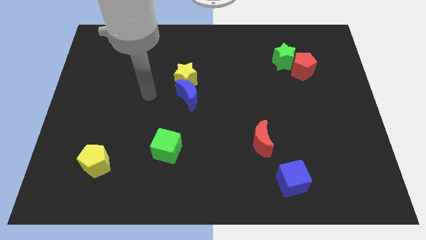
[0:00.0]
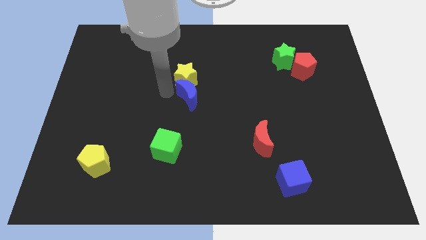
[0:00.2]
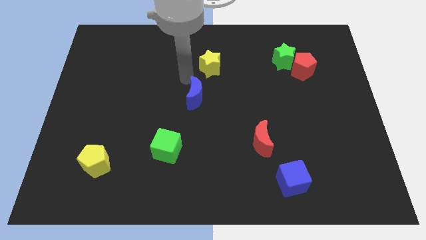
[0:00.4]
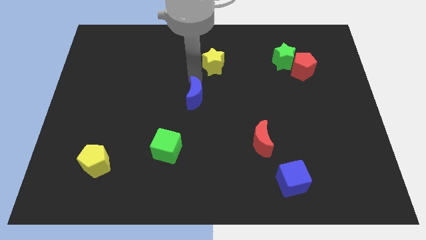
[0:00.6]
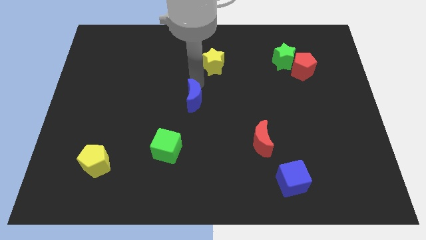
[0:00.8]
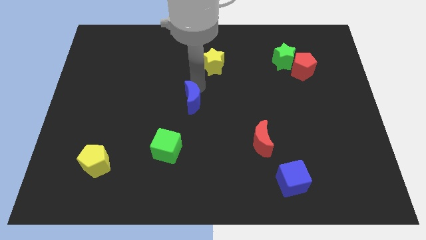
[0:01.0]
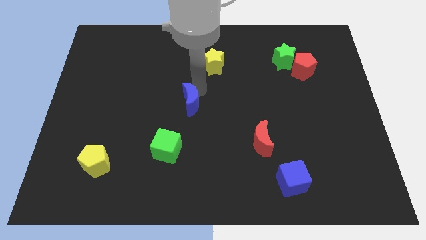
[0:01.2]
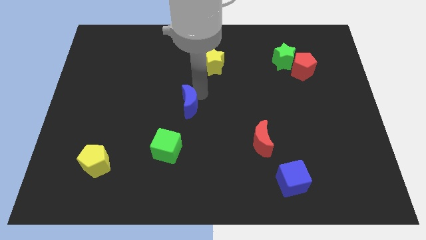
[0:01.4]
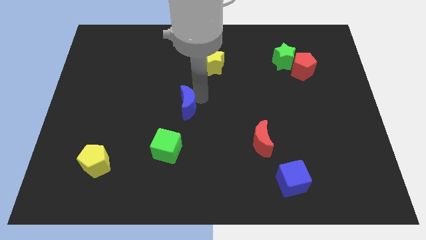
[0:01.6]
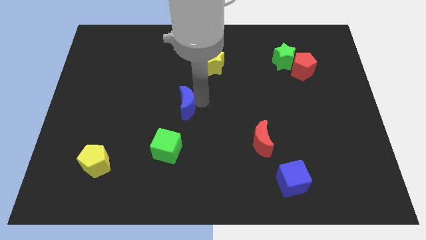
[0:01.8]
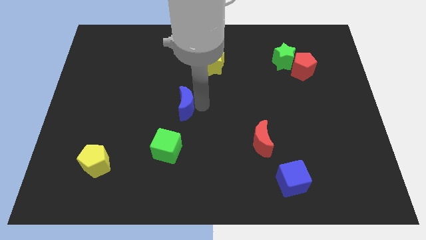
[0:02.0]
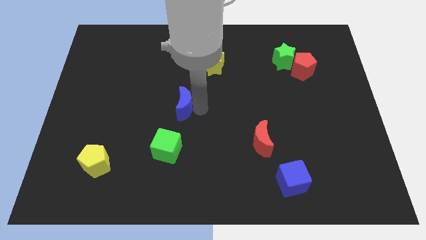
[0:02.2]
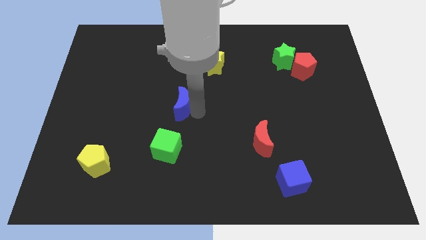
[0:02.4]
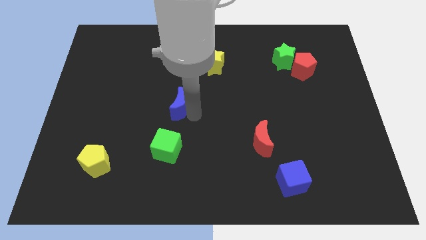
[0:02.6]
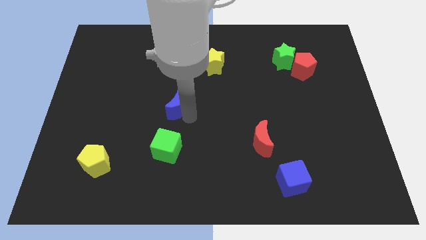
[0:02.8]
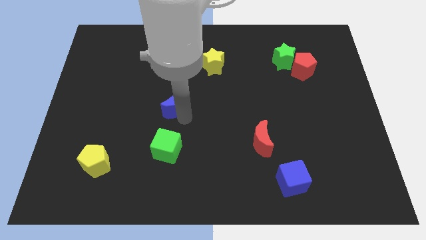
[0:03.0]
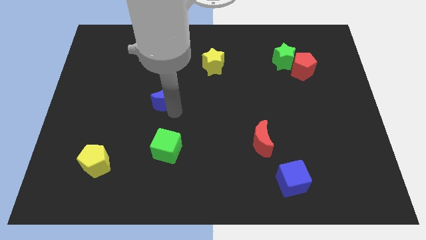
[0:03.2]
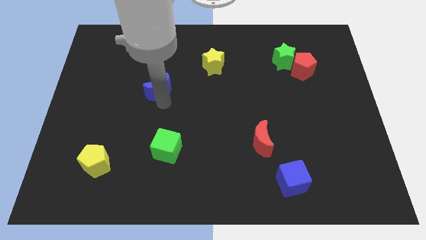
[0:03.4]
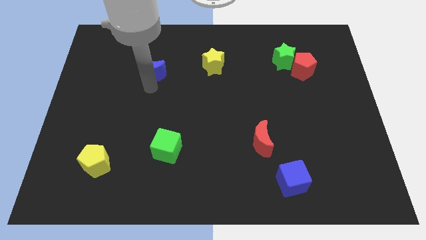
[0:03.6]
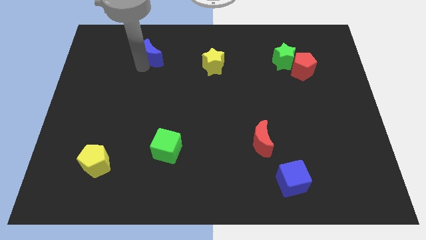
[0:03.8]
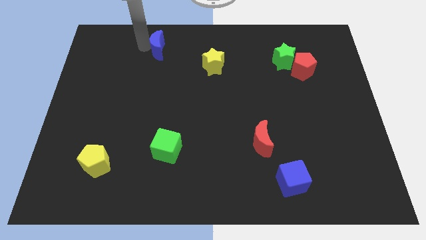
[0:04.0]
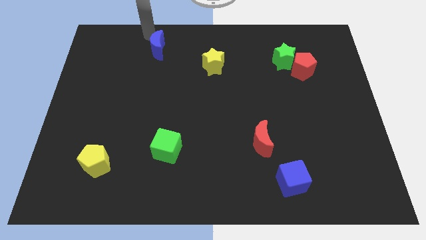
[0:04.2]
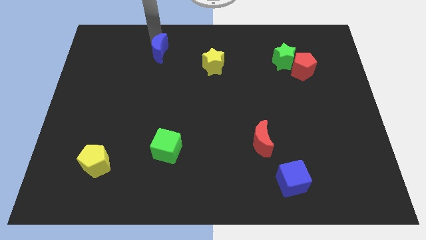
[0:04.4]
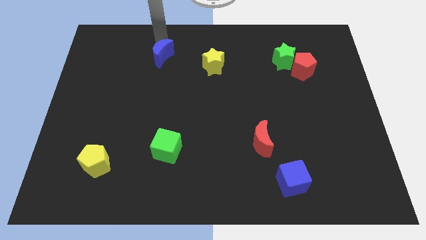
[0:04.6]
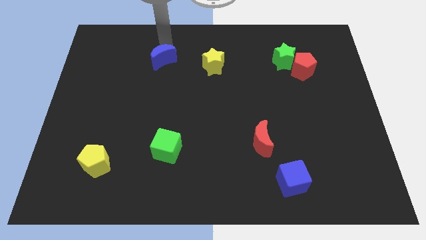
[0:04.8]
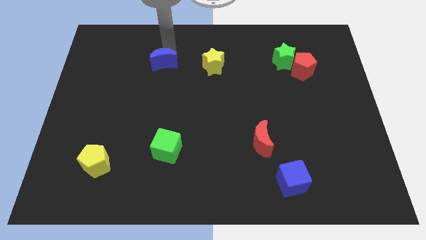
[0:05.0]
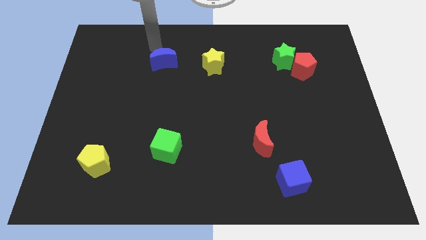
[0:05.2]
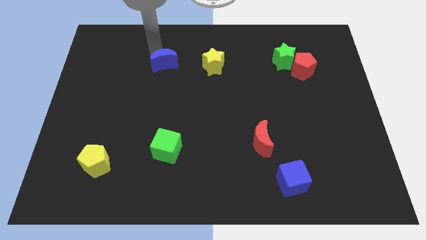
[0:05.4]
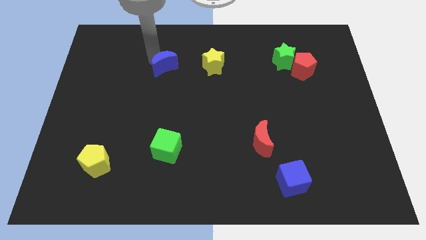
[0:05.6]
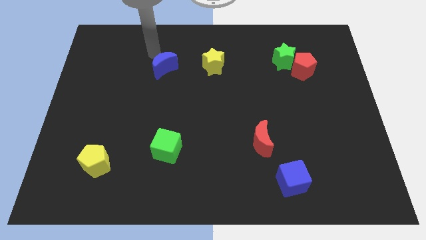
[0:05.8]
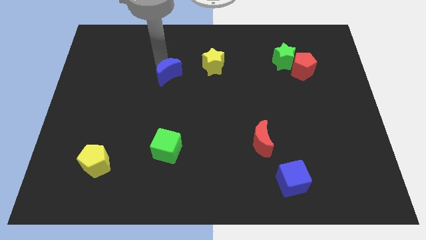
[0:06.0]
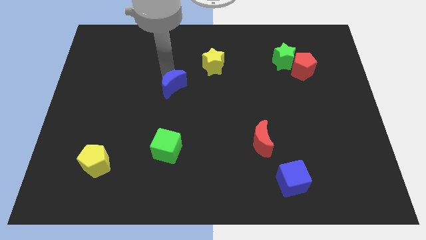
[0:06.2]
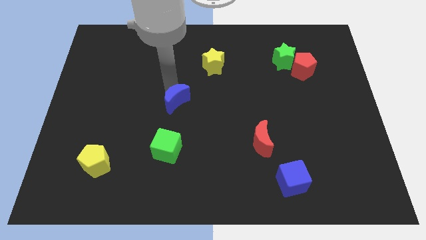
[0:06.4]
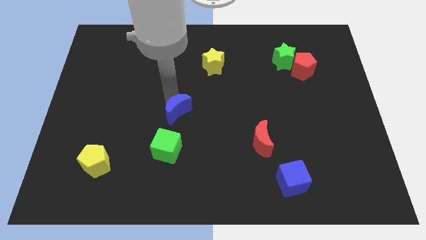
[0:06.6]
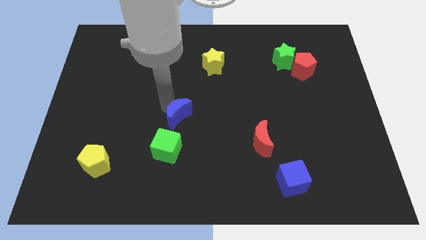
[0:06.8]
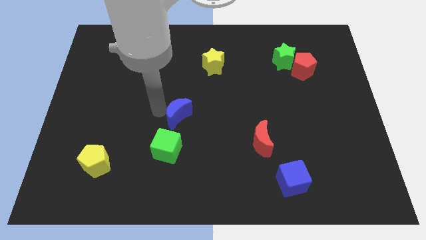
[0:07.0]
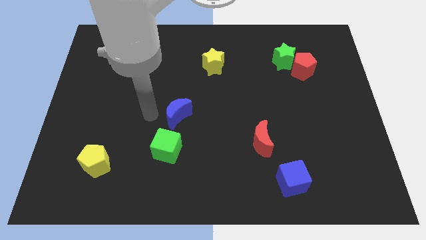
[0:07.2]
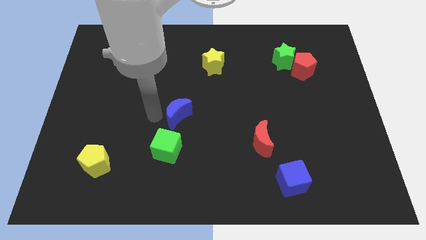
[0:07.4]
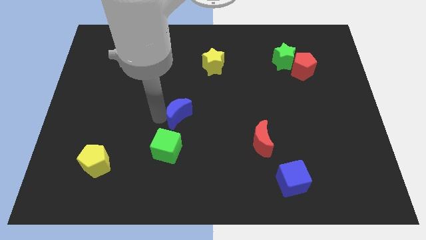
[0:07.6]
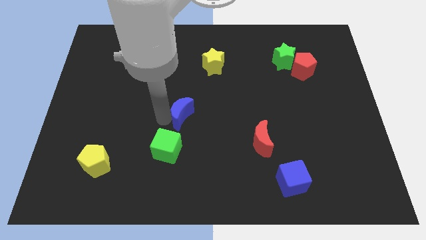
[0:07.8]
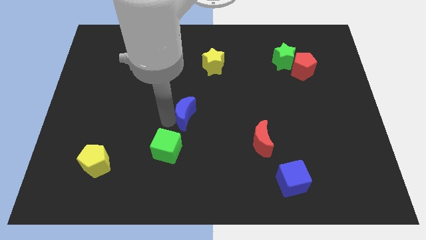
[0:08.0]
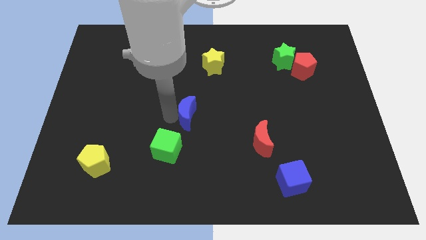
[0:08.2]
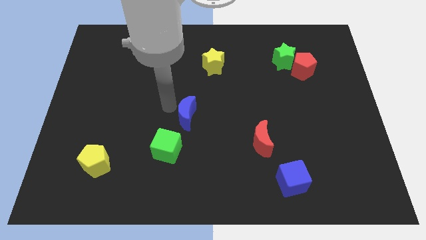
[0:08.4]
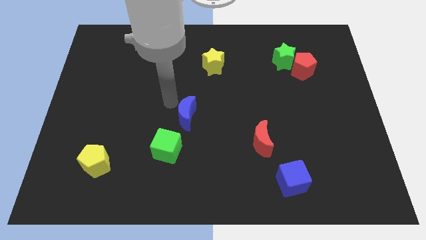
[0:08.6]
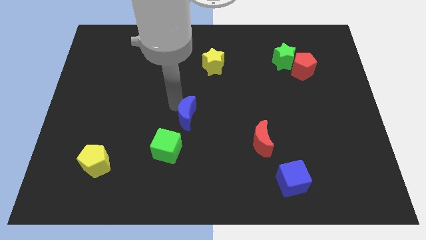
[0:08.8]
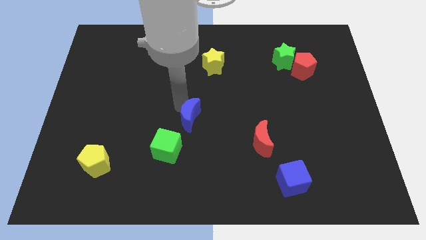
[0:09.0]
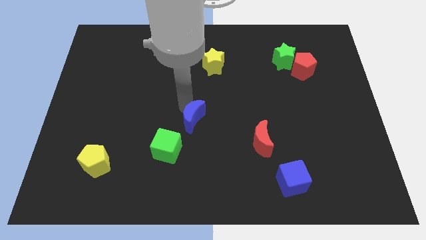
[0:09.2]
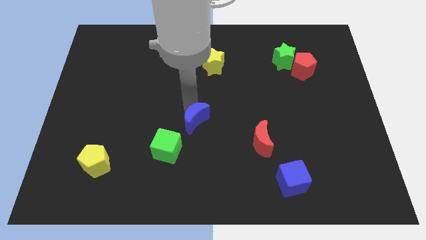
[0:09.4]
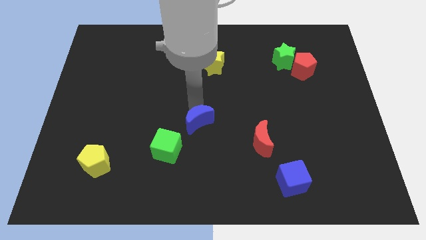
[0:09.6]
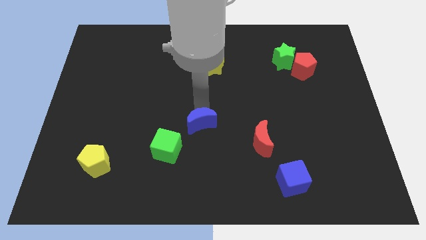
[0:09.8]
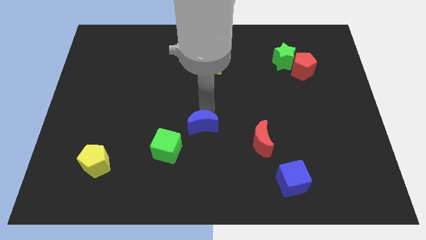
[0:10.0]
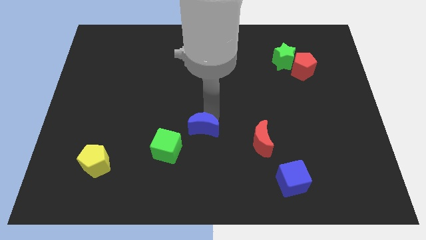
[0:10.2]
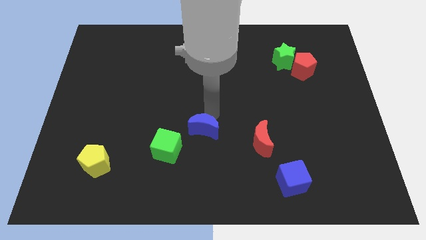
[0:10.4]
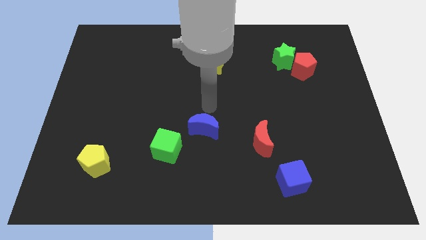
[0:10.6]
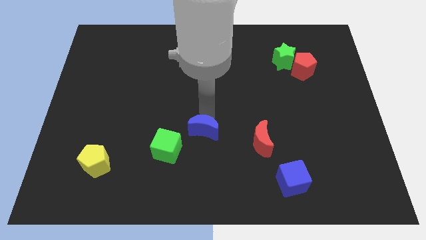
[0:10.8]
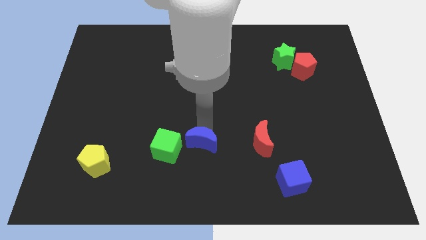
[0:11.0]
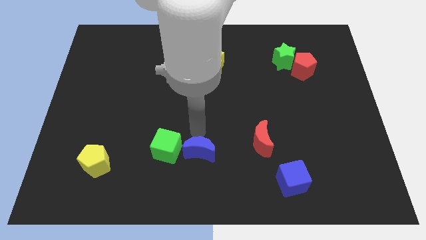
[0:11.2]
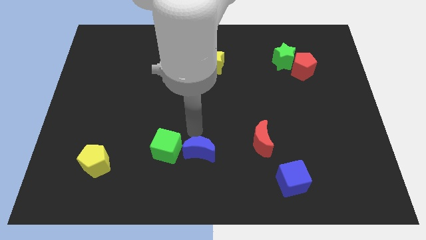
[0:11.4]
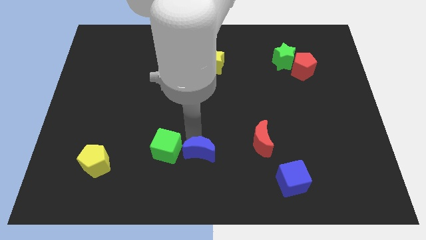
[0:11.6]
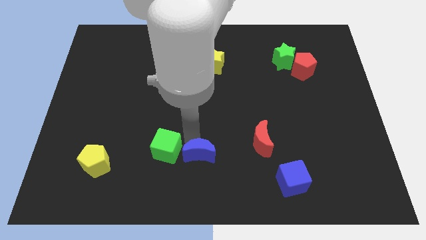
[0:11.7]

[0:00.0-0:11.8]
put the blue moon to the bottom

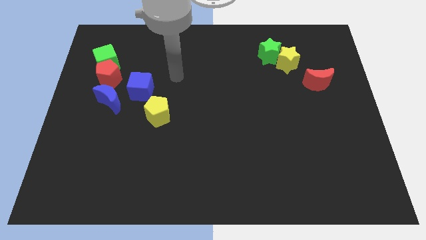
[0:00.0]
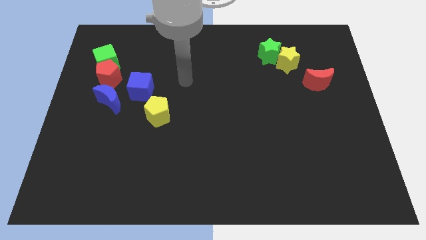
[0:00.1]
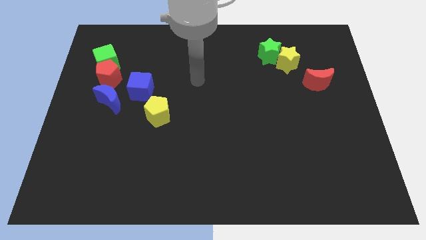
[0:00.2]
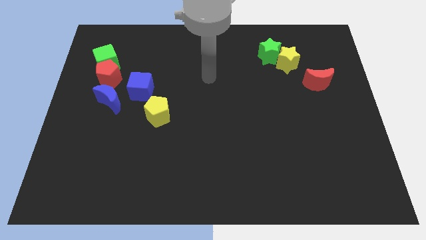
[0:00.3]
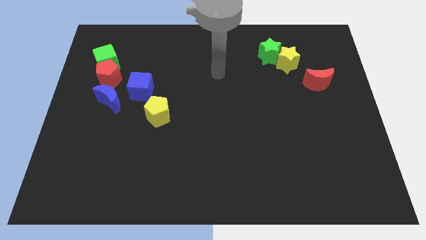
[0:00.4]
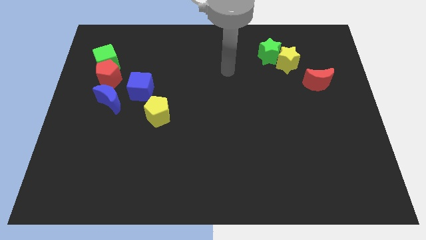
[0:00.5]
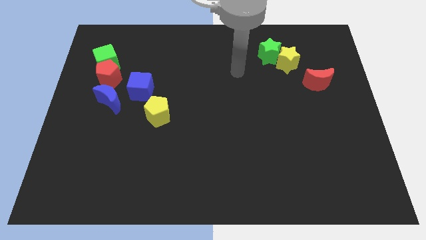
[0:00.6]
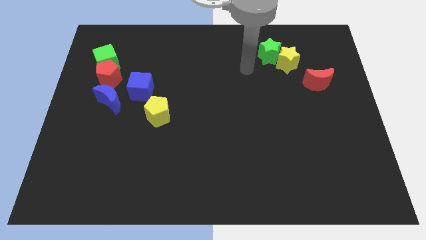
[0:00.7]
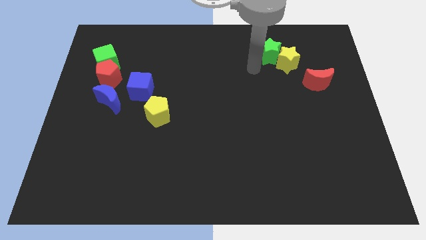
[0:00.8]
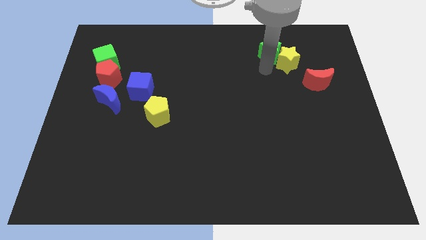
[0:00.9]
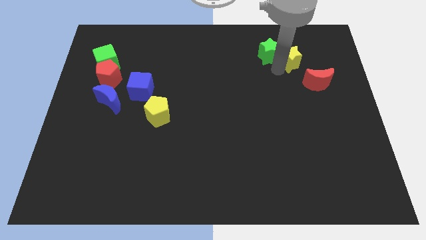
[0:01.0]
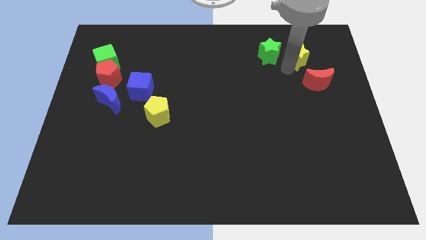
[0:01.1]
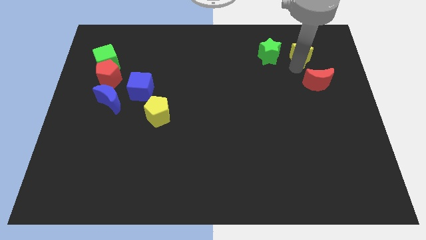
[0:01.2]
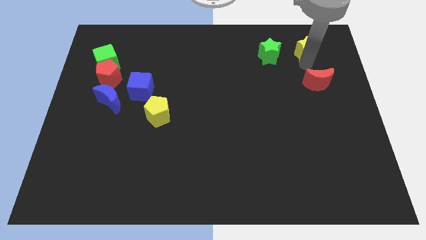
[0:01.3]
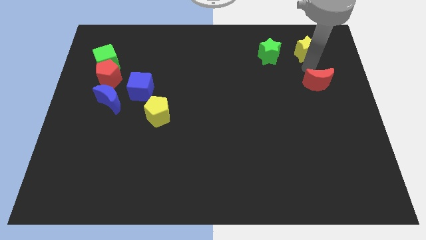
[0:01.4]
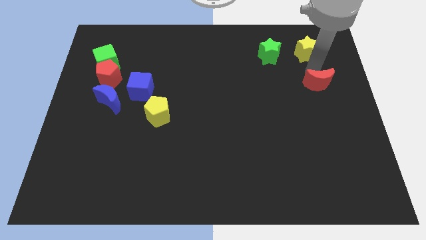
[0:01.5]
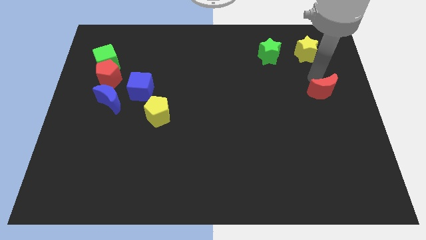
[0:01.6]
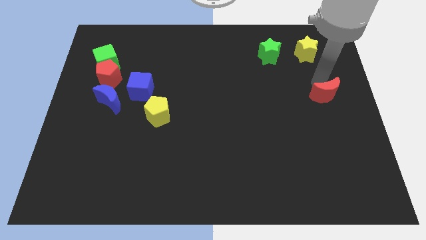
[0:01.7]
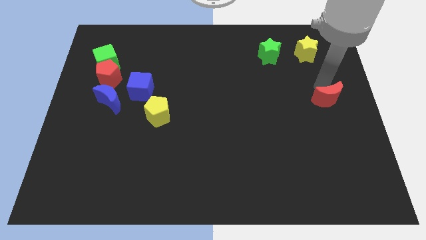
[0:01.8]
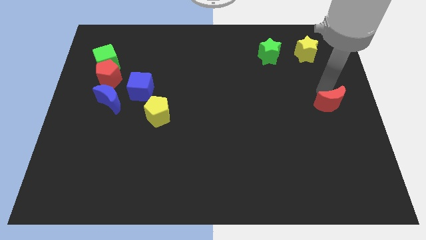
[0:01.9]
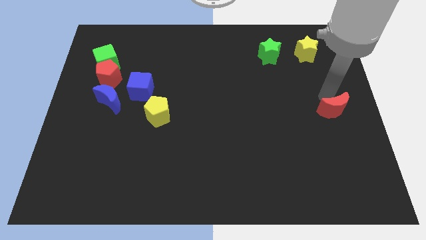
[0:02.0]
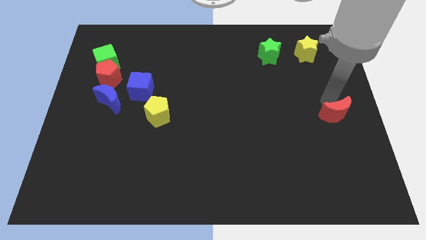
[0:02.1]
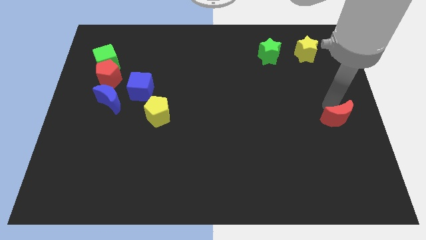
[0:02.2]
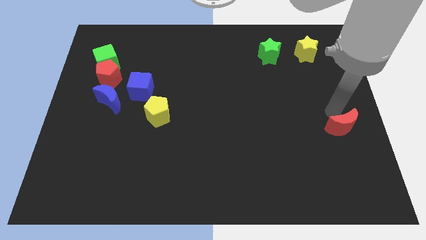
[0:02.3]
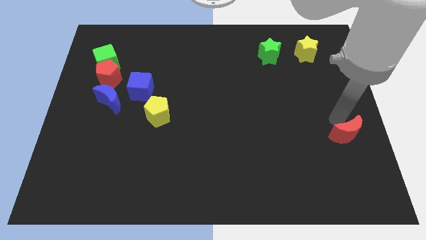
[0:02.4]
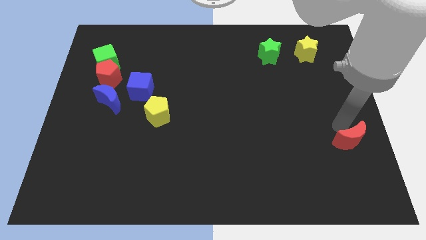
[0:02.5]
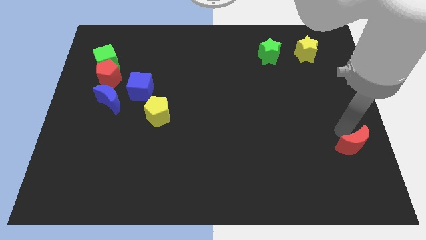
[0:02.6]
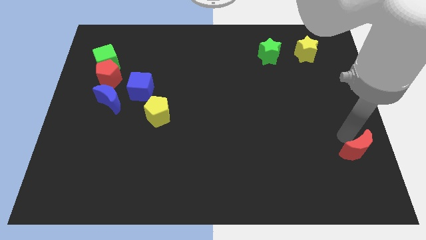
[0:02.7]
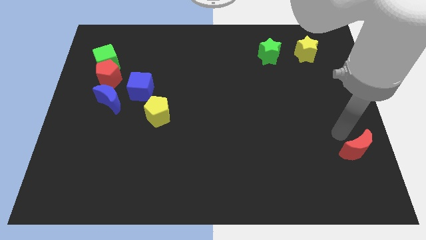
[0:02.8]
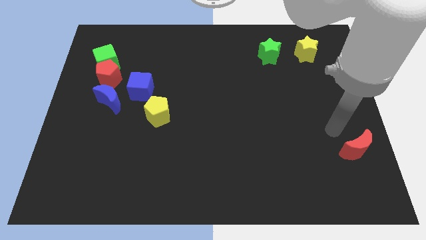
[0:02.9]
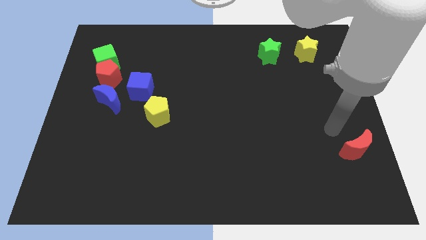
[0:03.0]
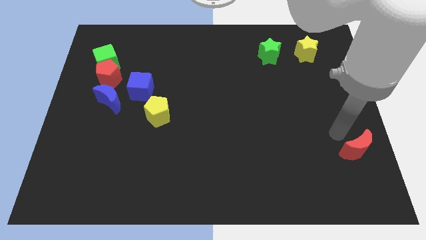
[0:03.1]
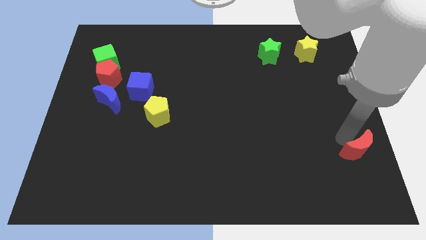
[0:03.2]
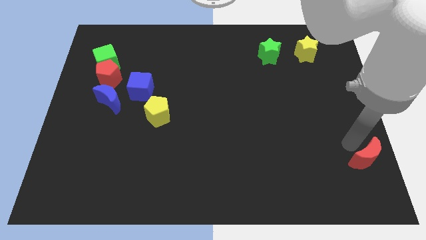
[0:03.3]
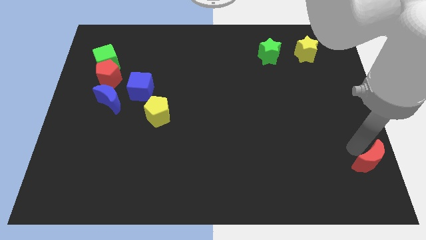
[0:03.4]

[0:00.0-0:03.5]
put the red moon to the bottom right
